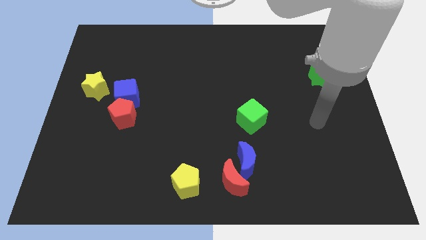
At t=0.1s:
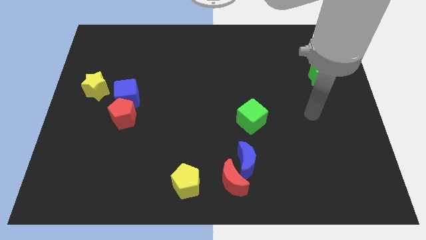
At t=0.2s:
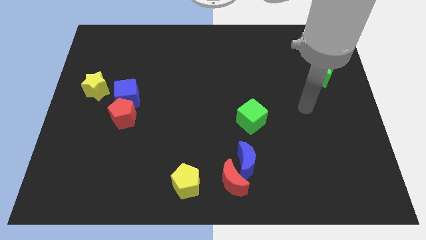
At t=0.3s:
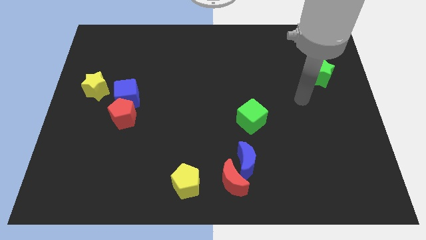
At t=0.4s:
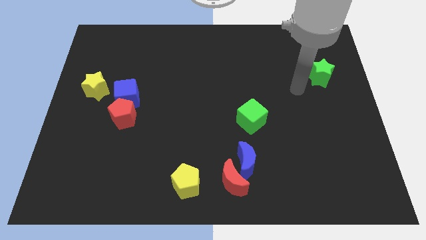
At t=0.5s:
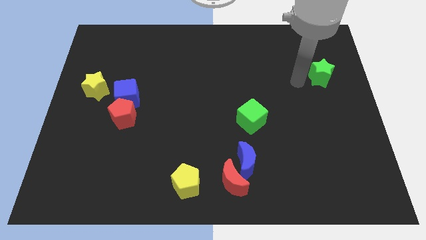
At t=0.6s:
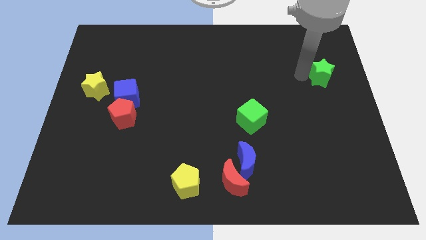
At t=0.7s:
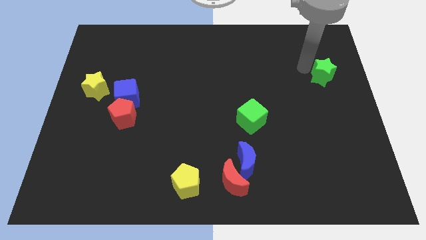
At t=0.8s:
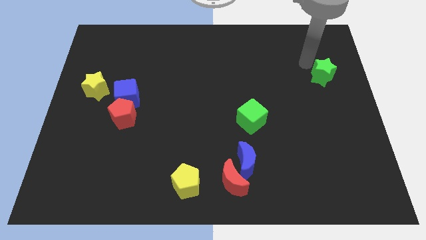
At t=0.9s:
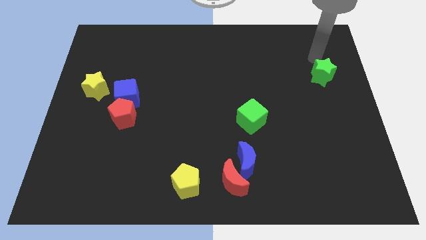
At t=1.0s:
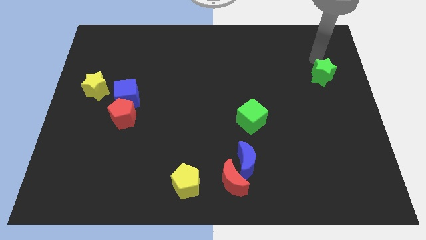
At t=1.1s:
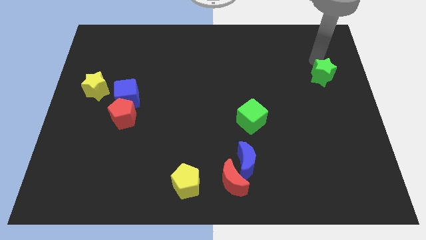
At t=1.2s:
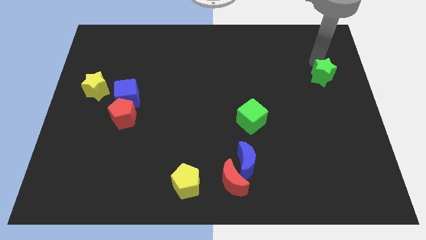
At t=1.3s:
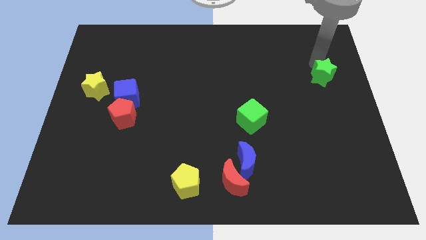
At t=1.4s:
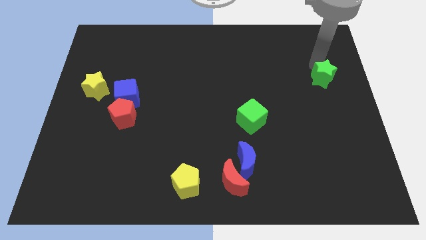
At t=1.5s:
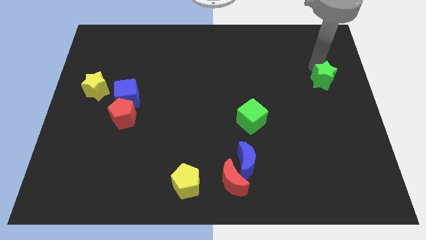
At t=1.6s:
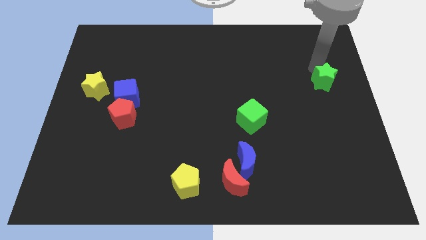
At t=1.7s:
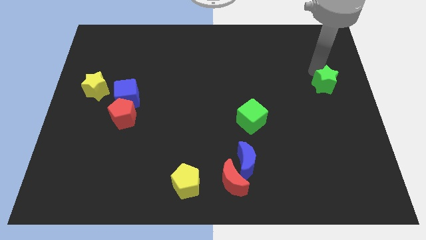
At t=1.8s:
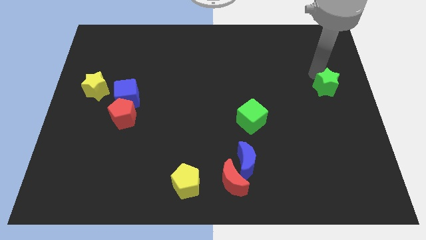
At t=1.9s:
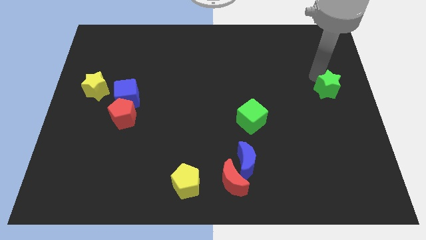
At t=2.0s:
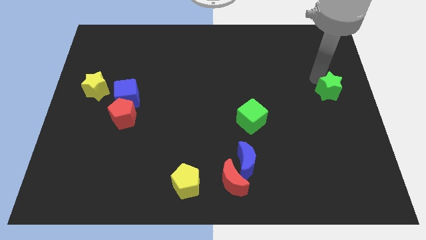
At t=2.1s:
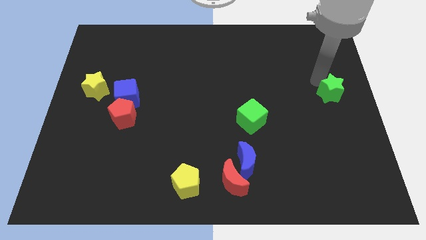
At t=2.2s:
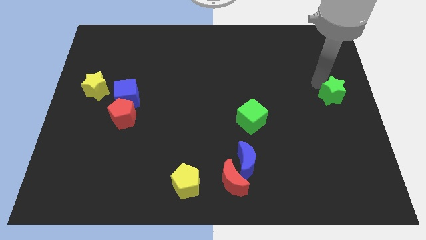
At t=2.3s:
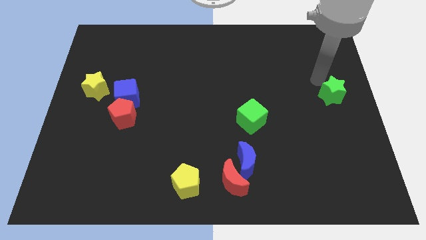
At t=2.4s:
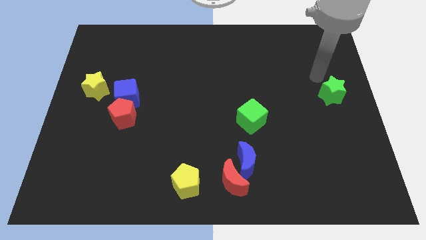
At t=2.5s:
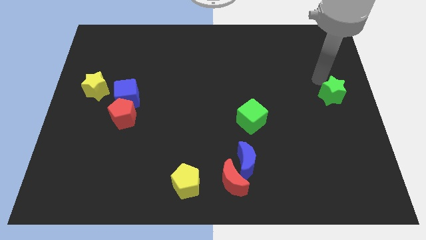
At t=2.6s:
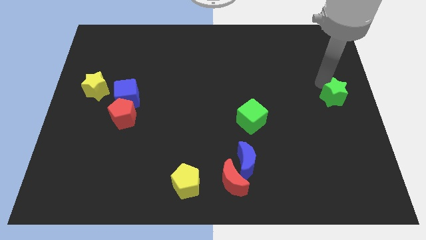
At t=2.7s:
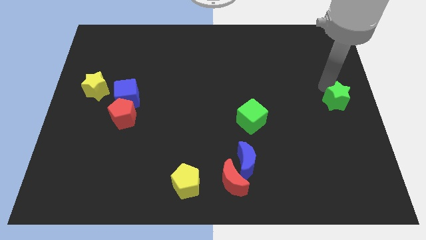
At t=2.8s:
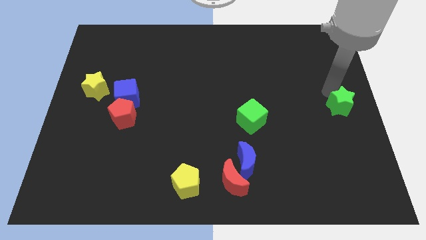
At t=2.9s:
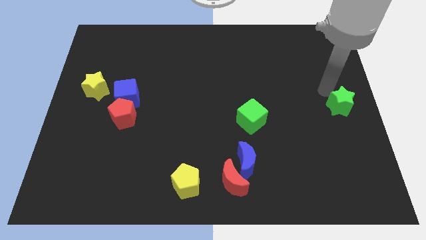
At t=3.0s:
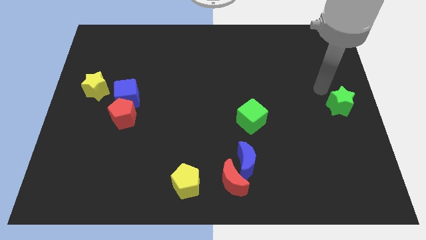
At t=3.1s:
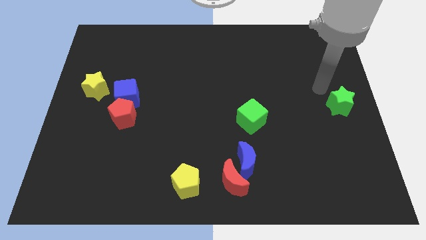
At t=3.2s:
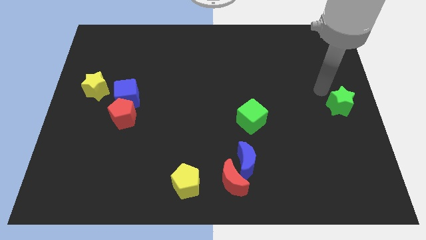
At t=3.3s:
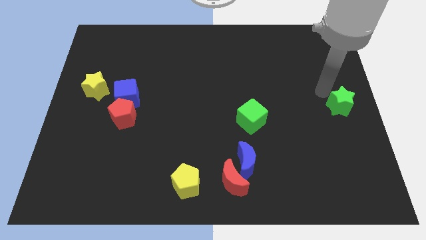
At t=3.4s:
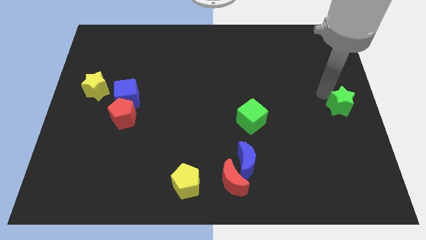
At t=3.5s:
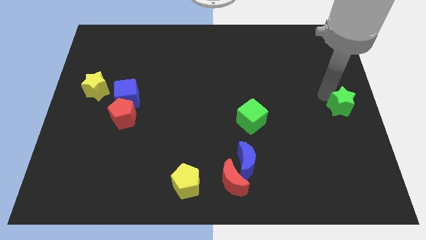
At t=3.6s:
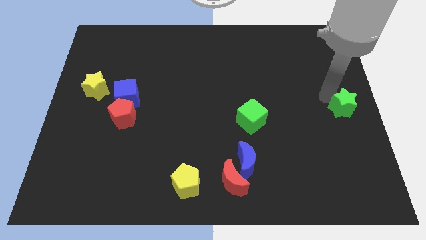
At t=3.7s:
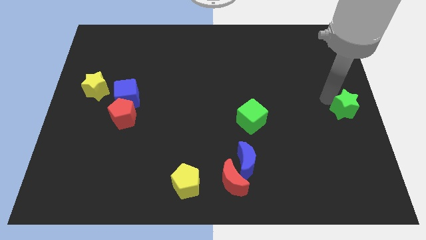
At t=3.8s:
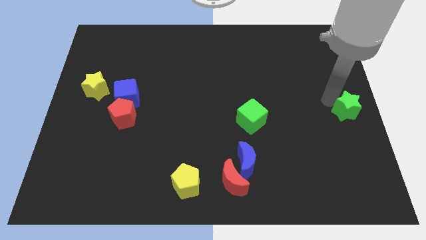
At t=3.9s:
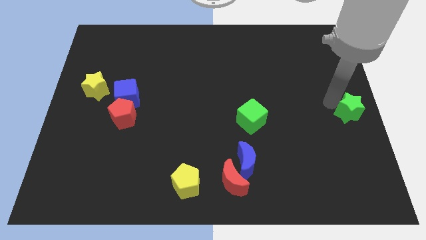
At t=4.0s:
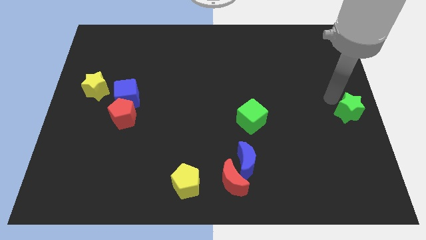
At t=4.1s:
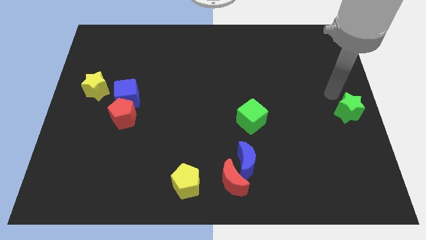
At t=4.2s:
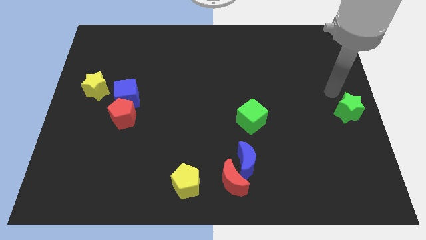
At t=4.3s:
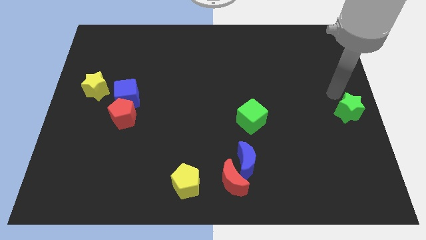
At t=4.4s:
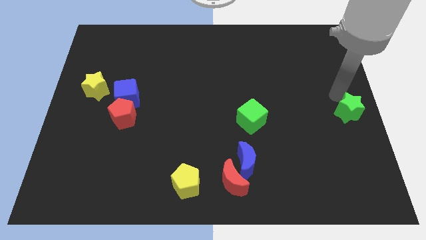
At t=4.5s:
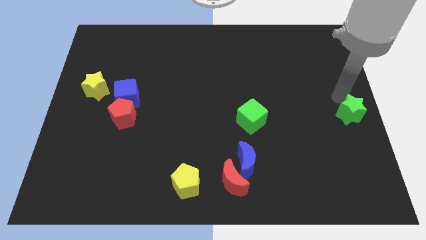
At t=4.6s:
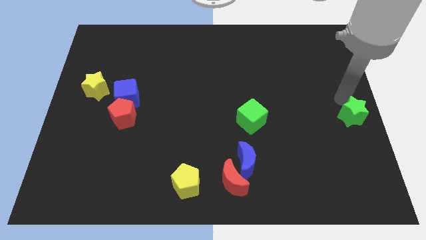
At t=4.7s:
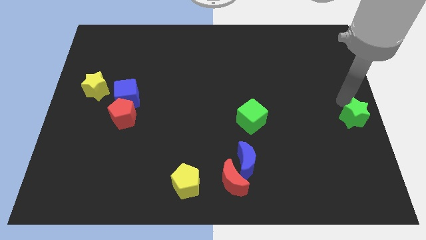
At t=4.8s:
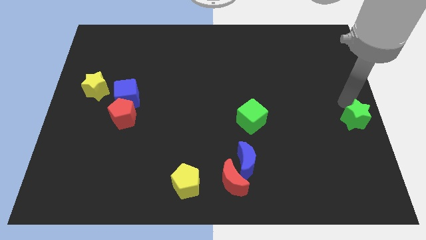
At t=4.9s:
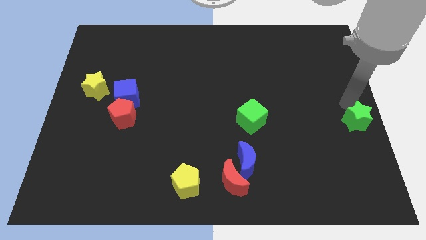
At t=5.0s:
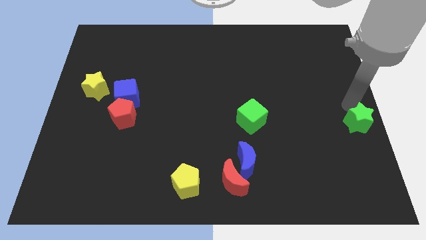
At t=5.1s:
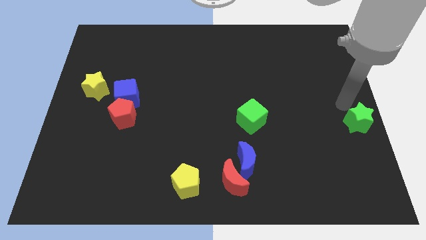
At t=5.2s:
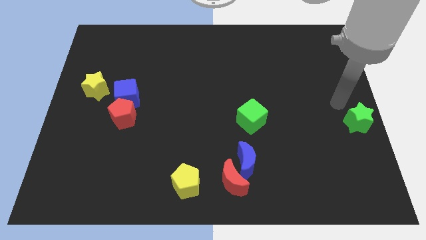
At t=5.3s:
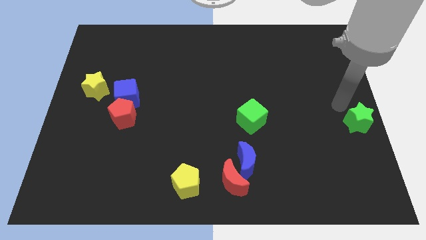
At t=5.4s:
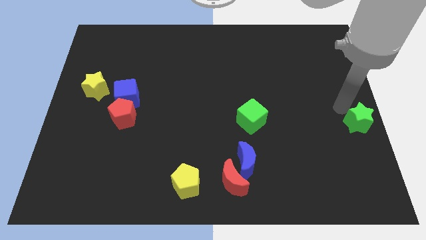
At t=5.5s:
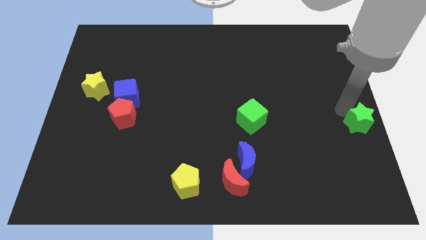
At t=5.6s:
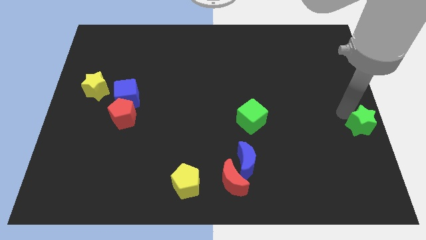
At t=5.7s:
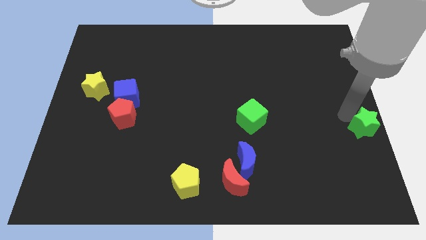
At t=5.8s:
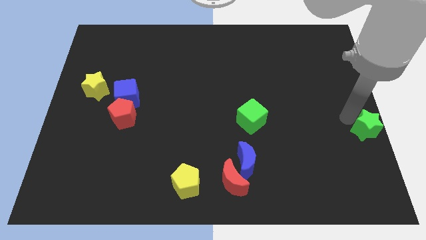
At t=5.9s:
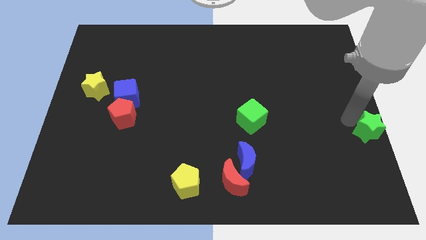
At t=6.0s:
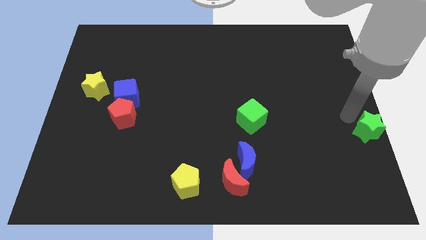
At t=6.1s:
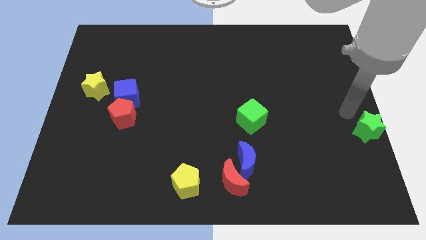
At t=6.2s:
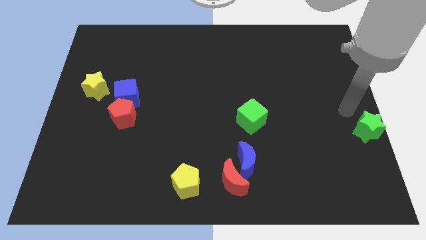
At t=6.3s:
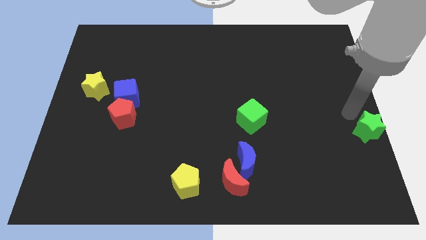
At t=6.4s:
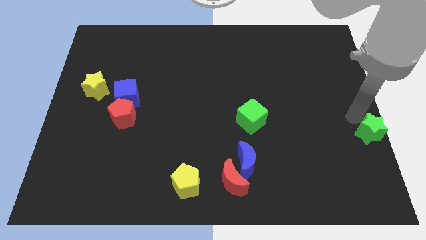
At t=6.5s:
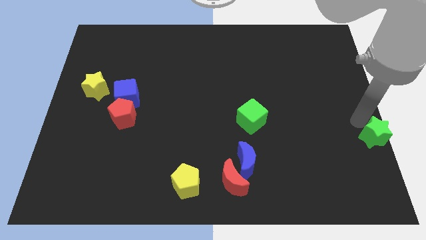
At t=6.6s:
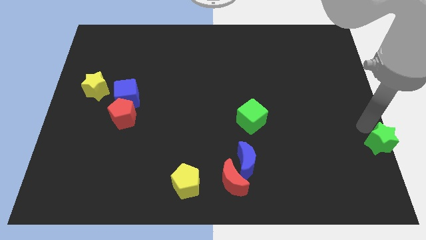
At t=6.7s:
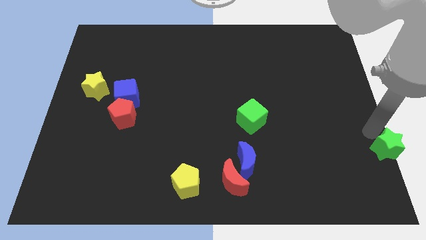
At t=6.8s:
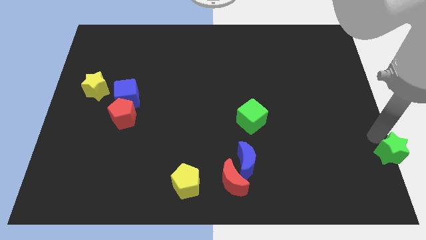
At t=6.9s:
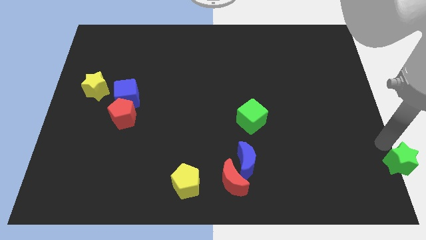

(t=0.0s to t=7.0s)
push the green star to the bottom right corner

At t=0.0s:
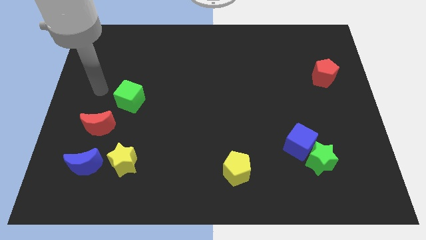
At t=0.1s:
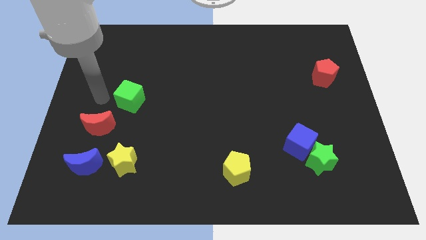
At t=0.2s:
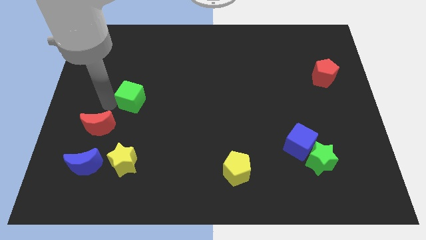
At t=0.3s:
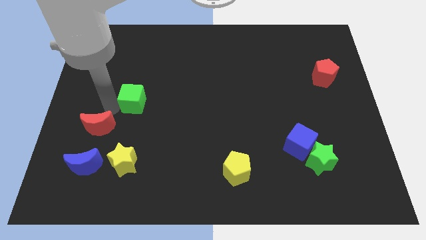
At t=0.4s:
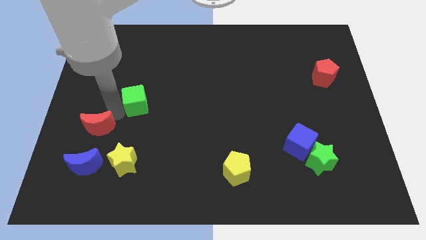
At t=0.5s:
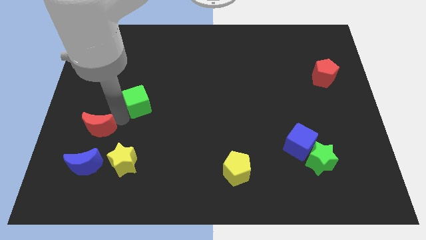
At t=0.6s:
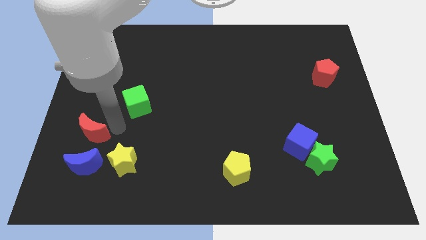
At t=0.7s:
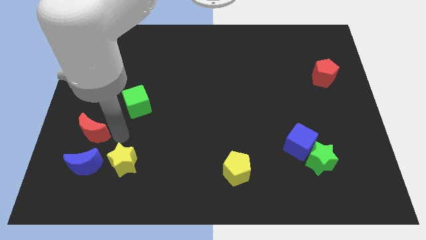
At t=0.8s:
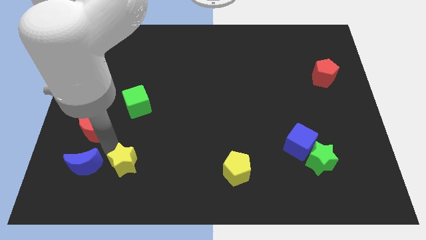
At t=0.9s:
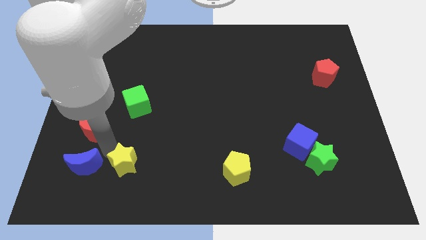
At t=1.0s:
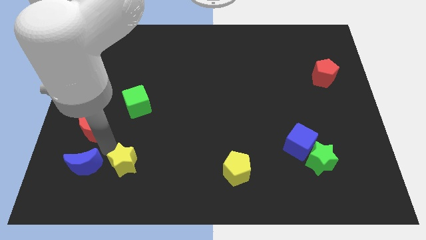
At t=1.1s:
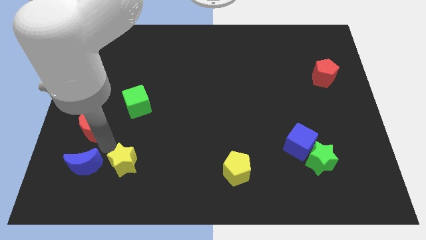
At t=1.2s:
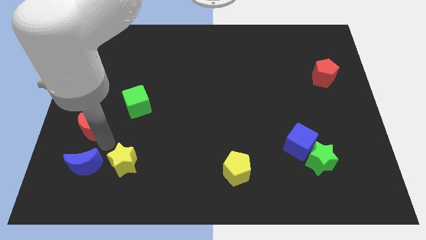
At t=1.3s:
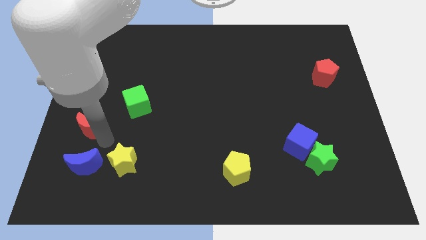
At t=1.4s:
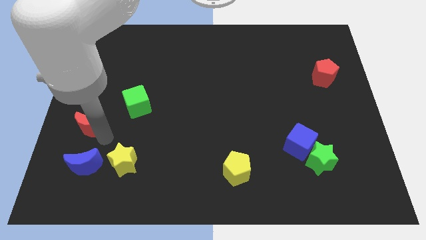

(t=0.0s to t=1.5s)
push the red moon to the left side of the board
